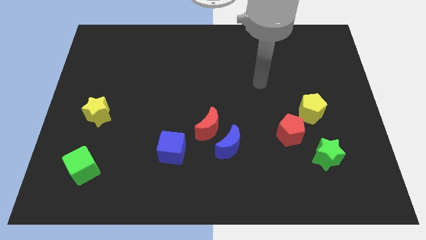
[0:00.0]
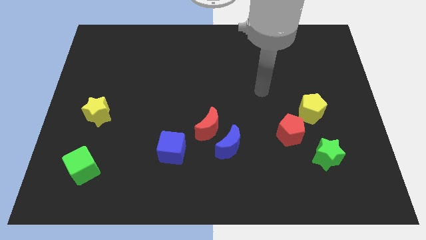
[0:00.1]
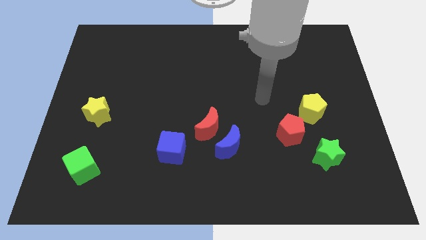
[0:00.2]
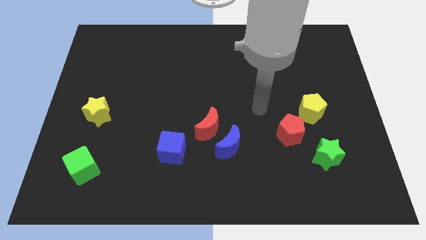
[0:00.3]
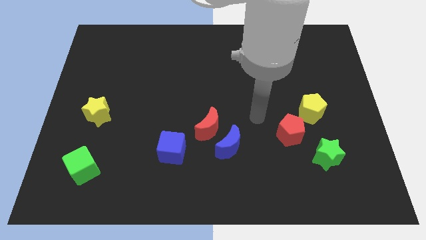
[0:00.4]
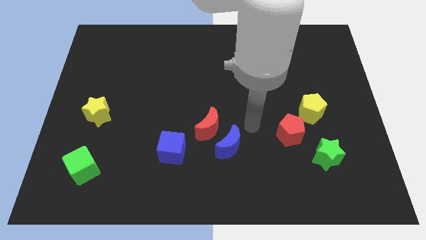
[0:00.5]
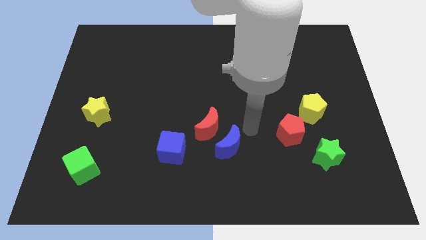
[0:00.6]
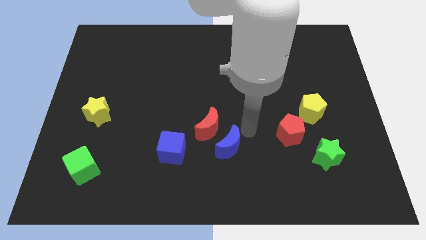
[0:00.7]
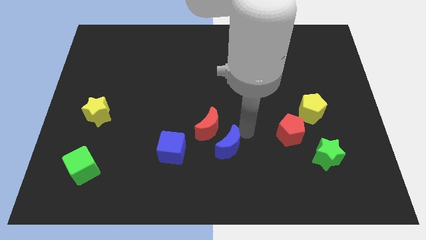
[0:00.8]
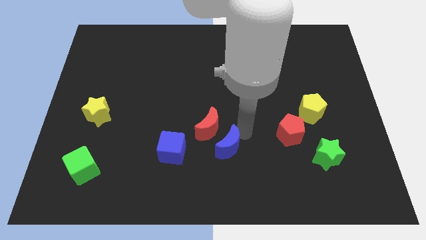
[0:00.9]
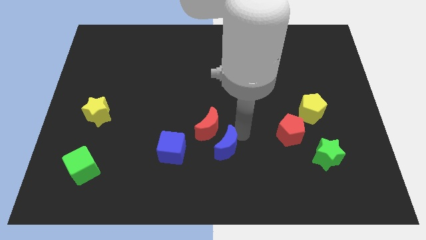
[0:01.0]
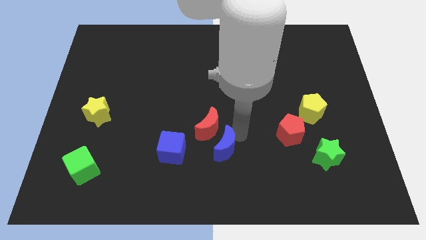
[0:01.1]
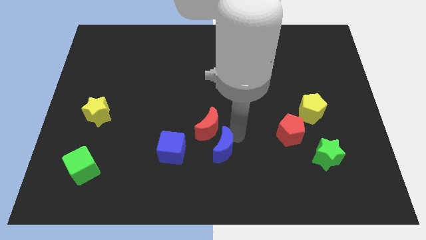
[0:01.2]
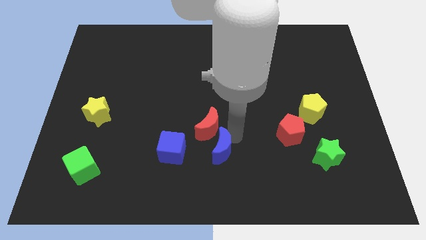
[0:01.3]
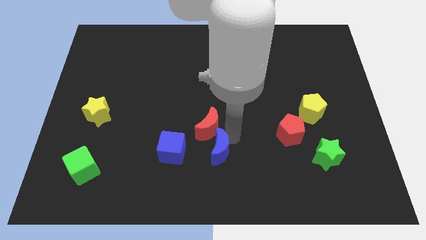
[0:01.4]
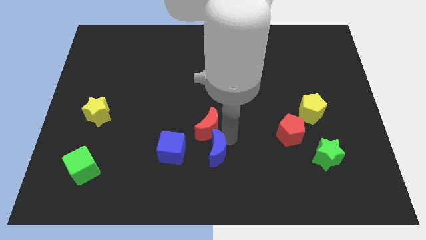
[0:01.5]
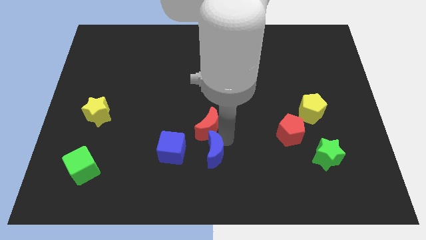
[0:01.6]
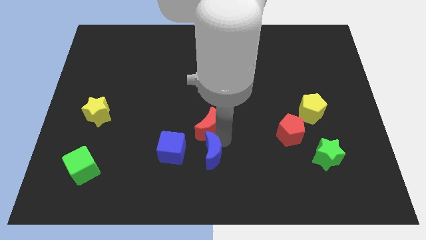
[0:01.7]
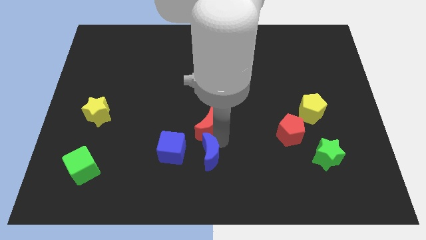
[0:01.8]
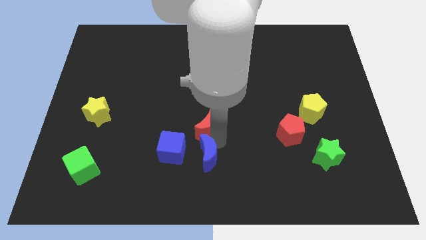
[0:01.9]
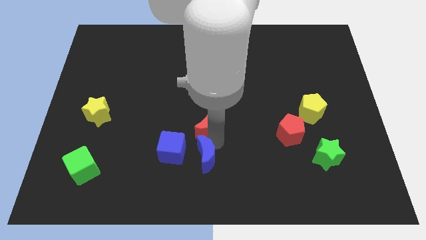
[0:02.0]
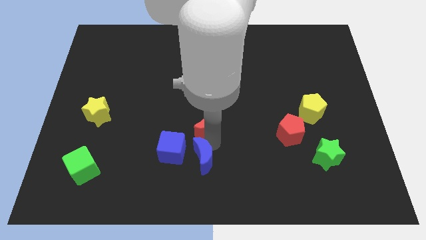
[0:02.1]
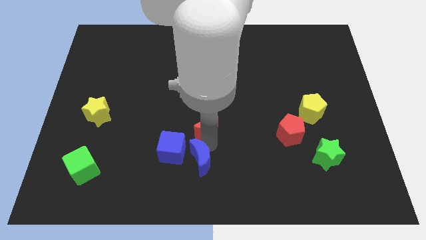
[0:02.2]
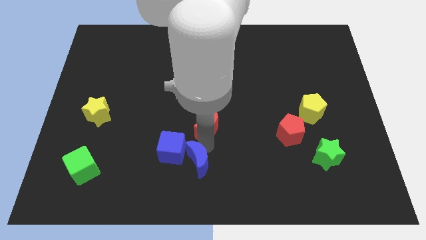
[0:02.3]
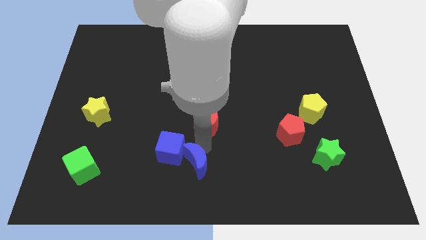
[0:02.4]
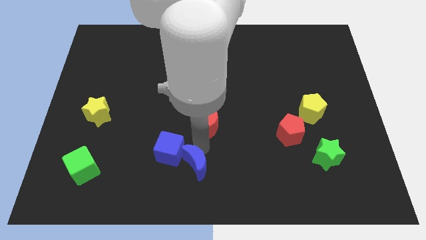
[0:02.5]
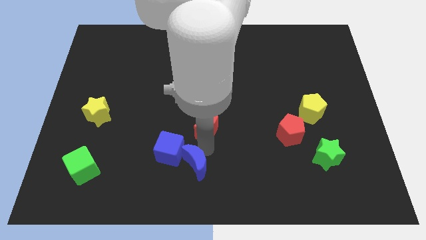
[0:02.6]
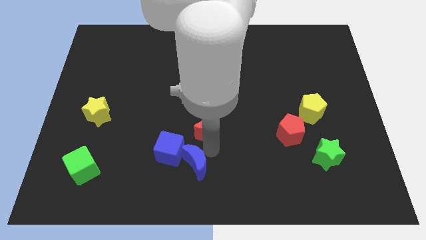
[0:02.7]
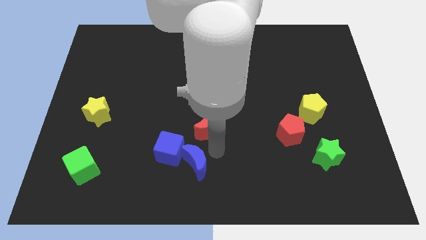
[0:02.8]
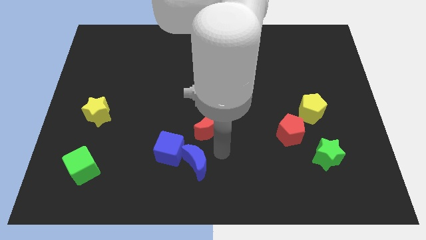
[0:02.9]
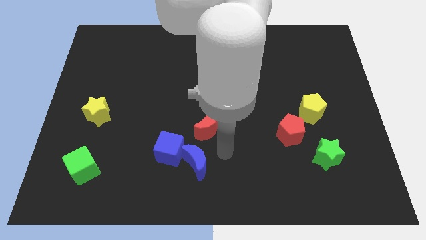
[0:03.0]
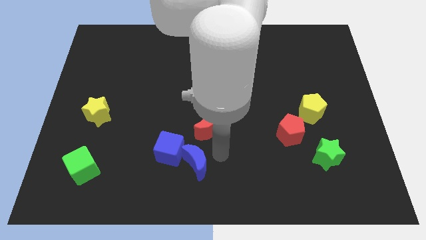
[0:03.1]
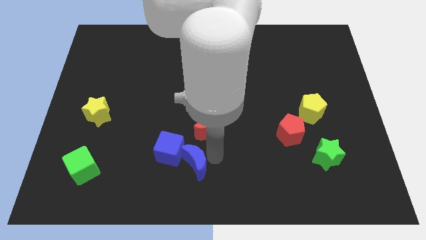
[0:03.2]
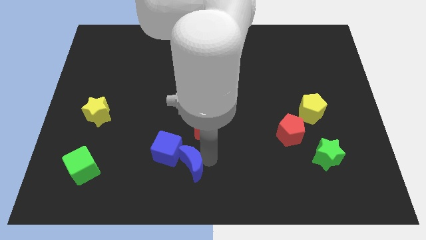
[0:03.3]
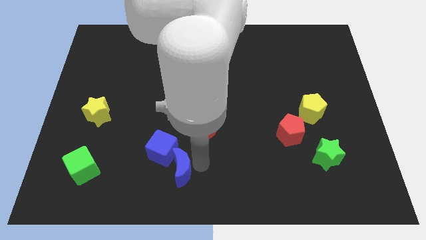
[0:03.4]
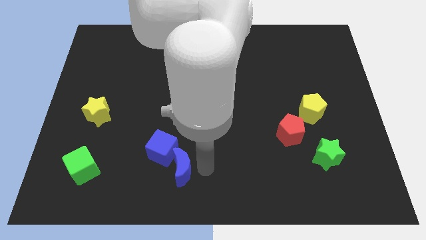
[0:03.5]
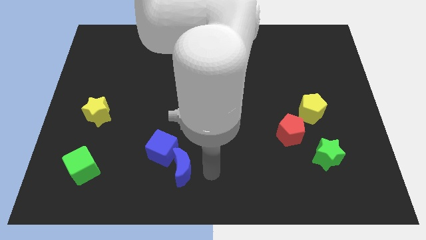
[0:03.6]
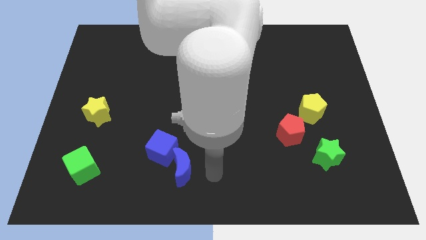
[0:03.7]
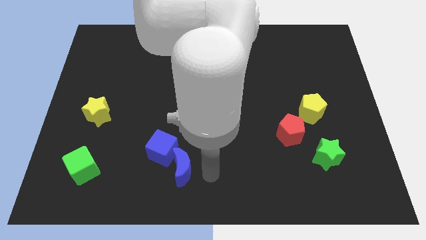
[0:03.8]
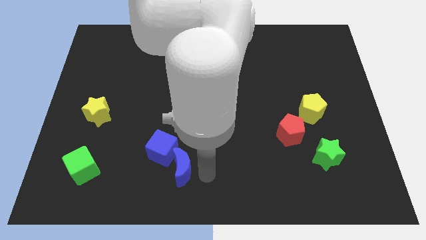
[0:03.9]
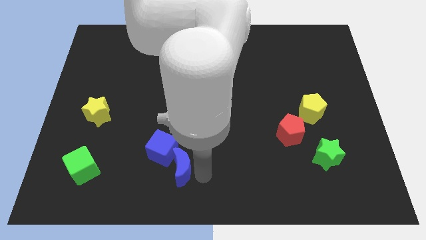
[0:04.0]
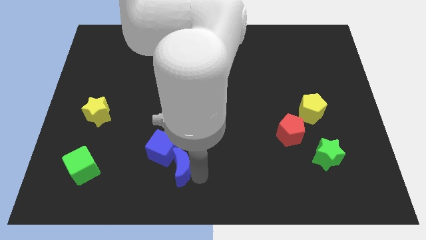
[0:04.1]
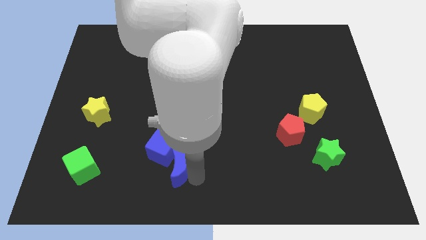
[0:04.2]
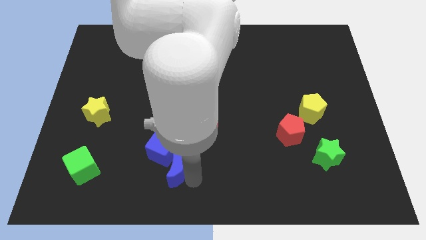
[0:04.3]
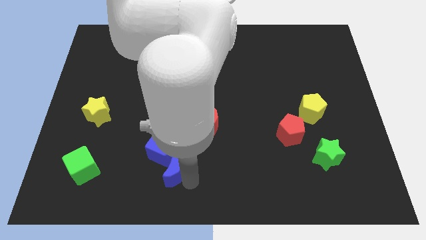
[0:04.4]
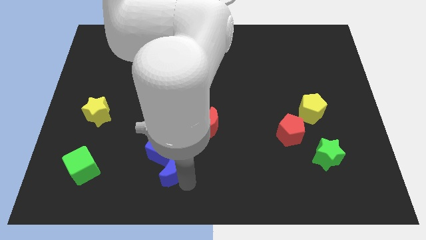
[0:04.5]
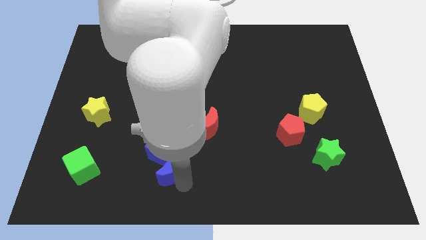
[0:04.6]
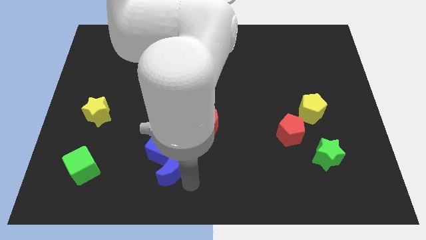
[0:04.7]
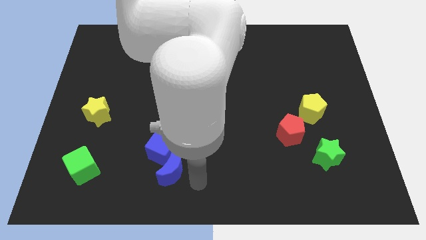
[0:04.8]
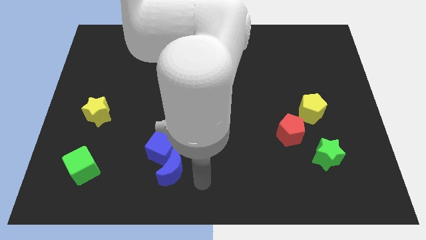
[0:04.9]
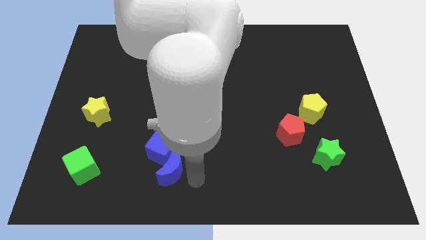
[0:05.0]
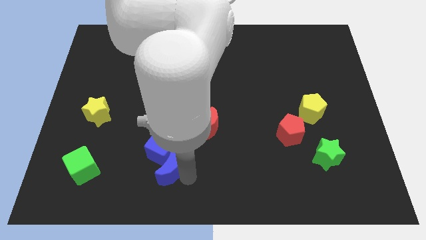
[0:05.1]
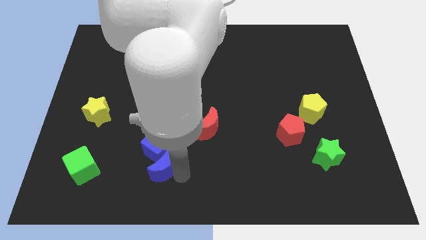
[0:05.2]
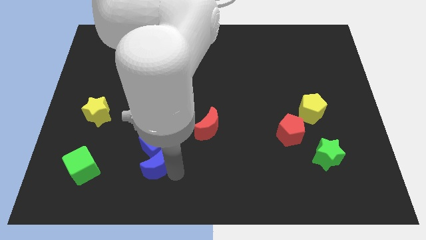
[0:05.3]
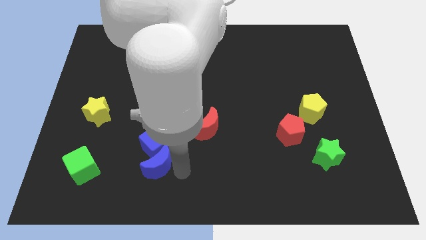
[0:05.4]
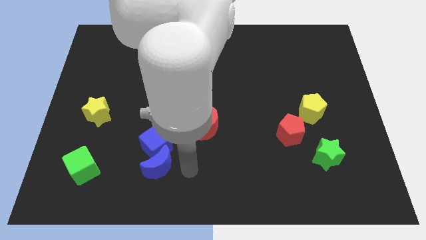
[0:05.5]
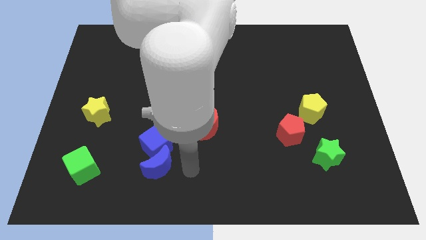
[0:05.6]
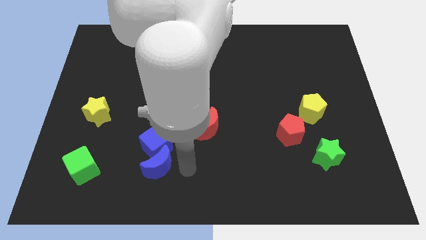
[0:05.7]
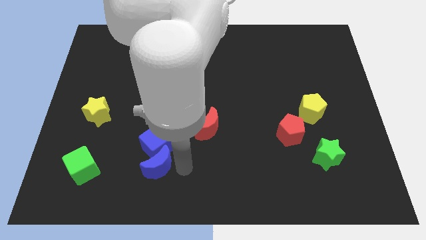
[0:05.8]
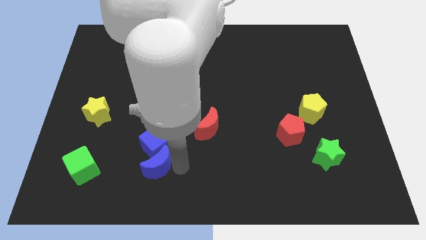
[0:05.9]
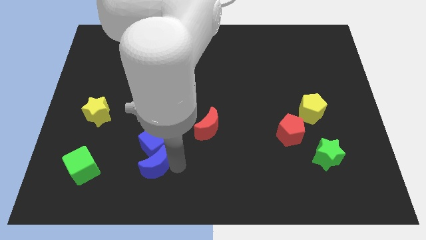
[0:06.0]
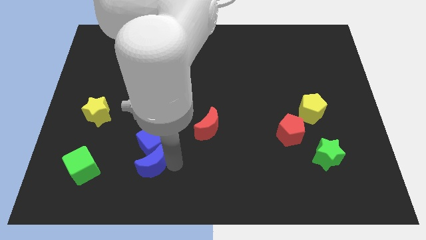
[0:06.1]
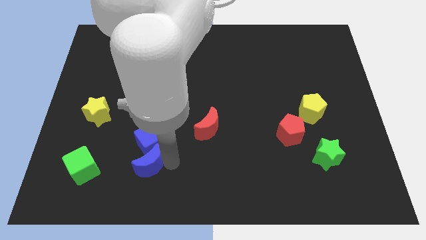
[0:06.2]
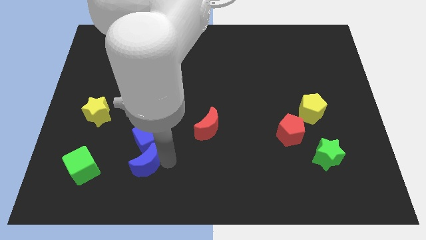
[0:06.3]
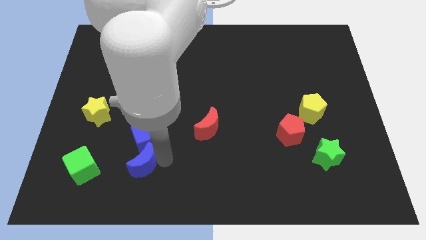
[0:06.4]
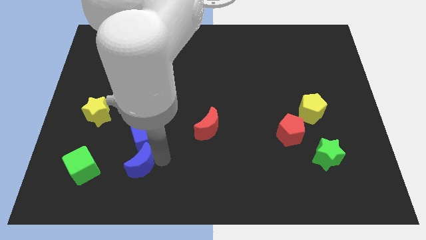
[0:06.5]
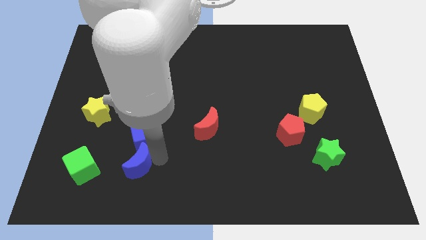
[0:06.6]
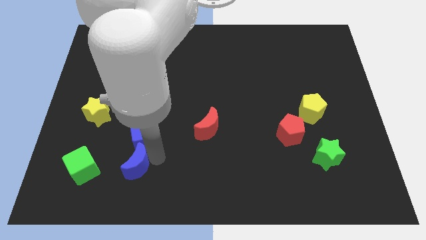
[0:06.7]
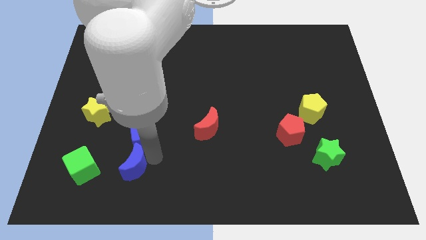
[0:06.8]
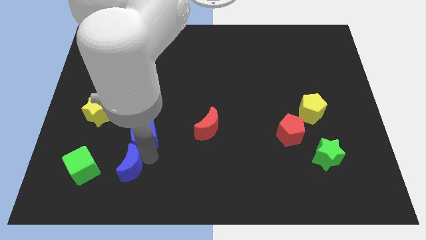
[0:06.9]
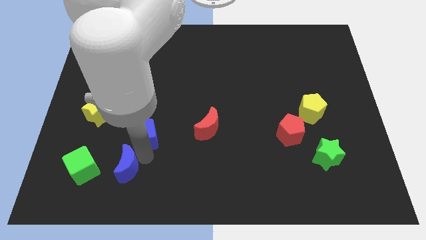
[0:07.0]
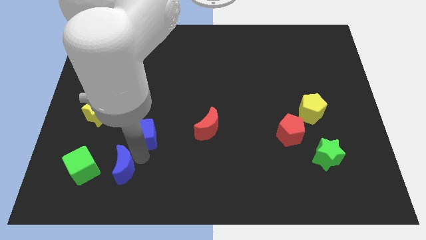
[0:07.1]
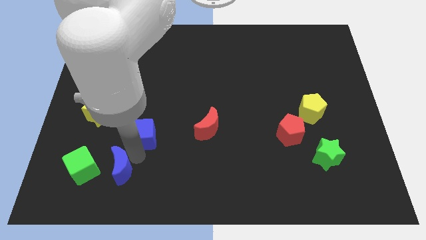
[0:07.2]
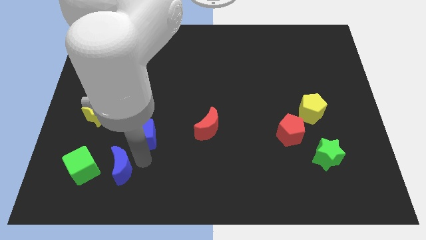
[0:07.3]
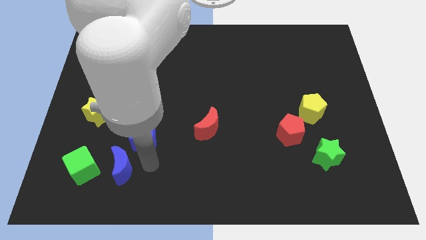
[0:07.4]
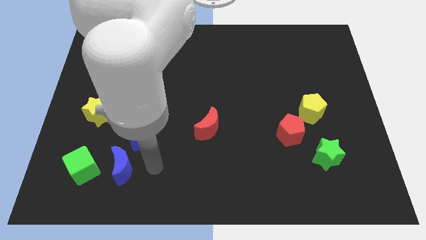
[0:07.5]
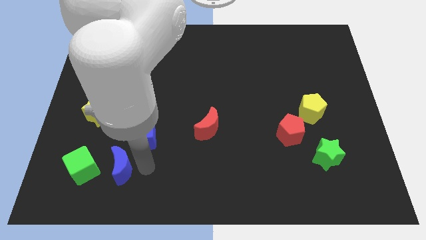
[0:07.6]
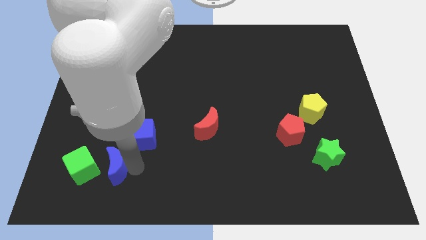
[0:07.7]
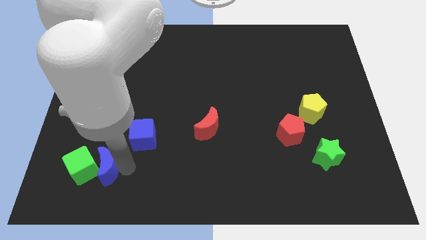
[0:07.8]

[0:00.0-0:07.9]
put the blue moon next to the green cube
